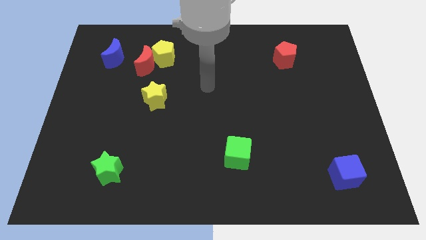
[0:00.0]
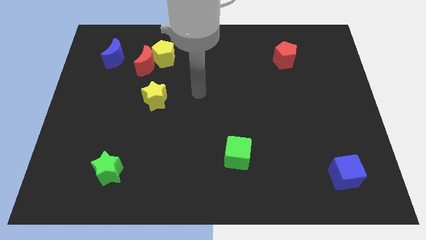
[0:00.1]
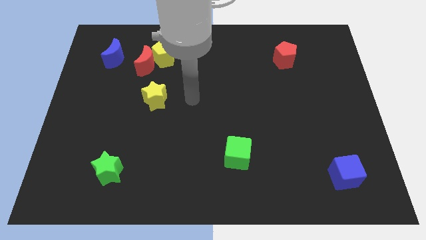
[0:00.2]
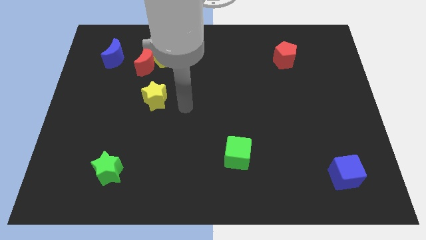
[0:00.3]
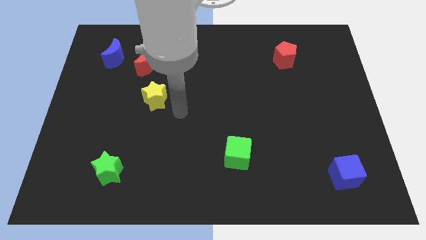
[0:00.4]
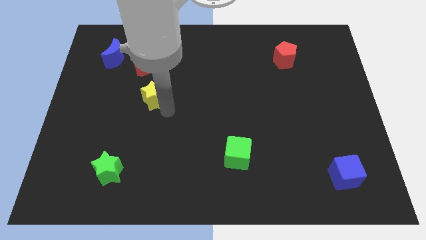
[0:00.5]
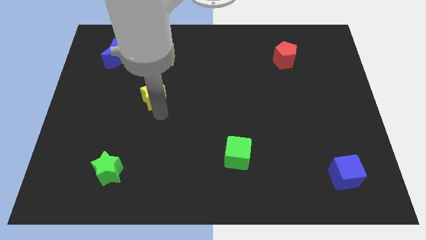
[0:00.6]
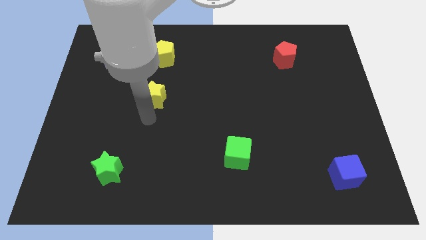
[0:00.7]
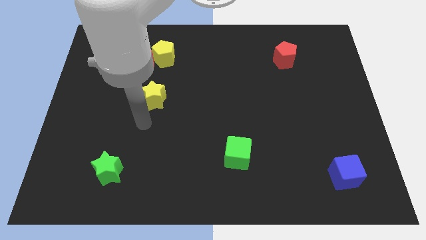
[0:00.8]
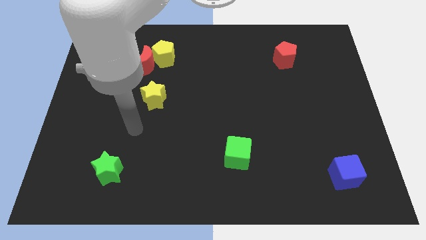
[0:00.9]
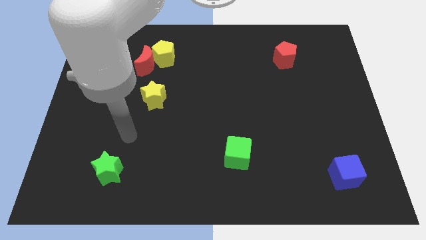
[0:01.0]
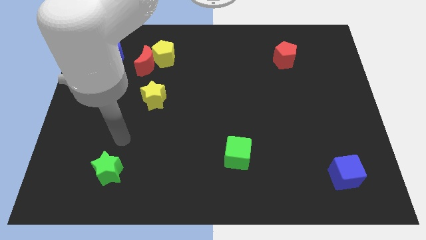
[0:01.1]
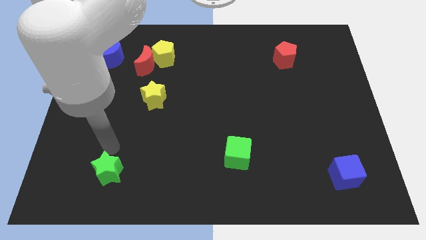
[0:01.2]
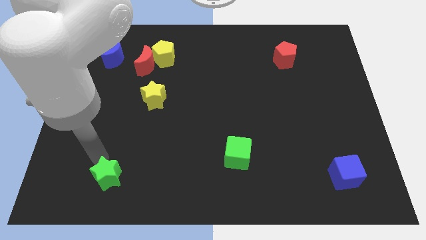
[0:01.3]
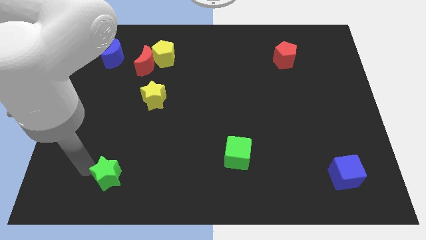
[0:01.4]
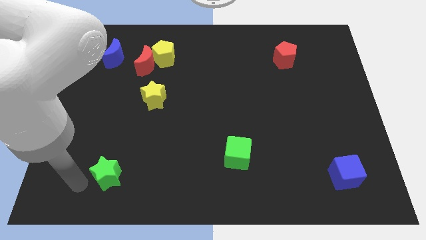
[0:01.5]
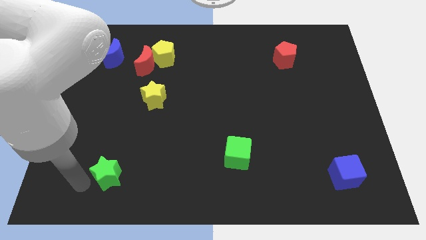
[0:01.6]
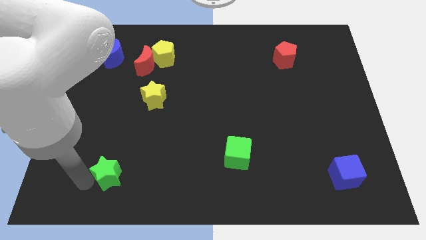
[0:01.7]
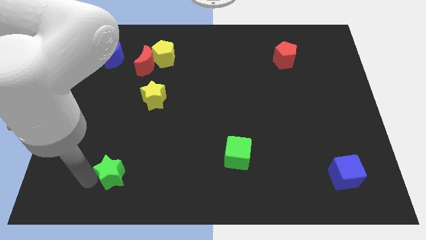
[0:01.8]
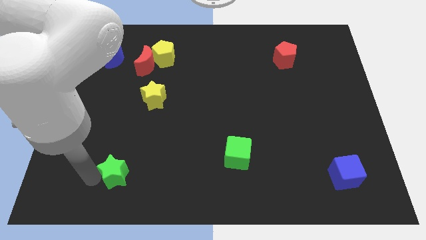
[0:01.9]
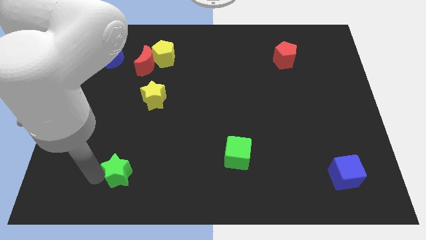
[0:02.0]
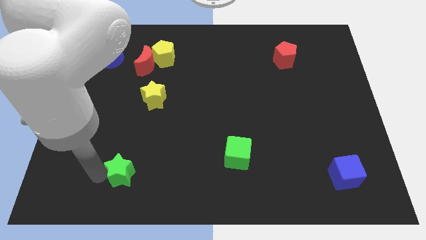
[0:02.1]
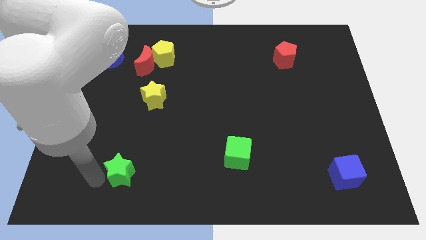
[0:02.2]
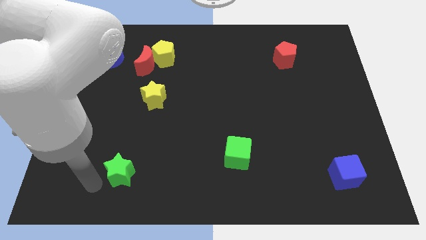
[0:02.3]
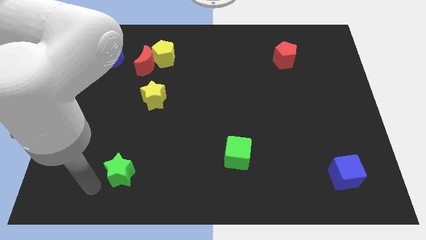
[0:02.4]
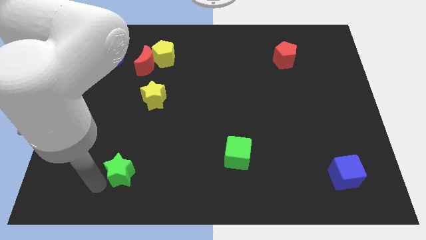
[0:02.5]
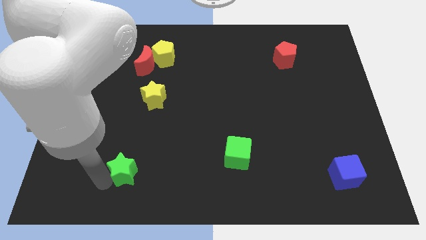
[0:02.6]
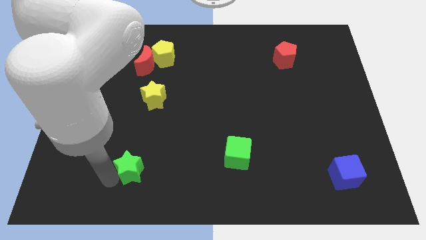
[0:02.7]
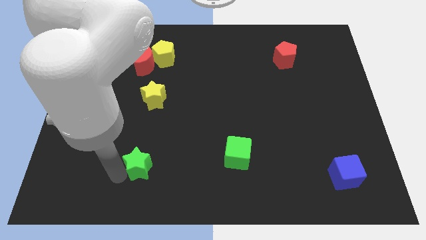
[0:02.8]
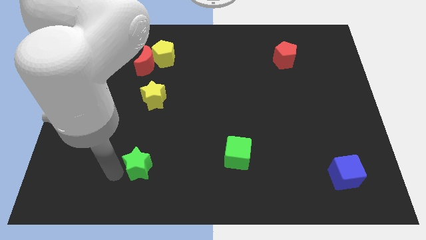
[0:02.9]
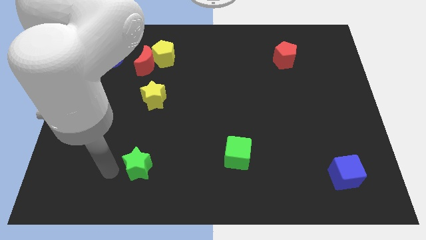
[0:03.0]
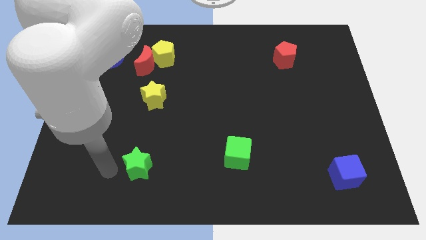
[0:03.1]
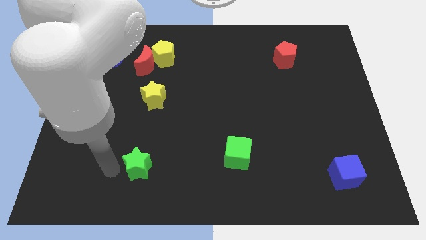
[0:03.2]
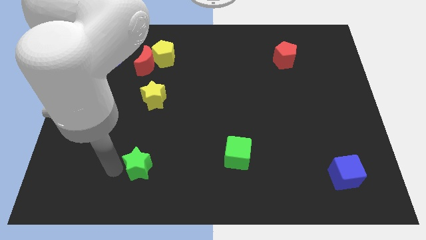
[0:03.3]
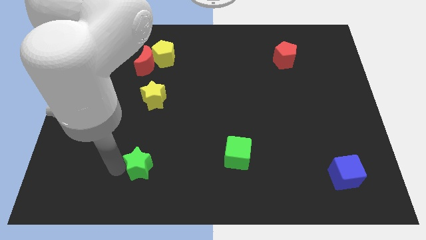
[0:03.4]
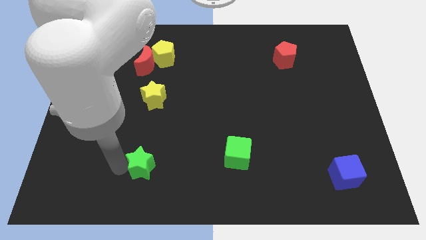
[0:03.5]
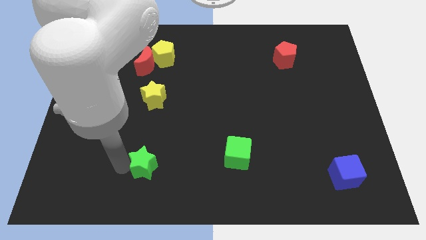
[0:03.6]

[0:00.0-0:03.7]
push the green star to the right a little bit

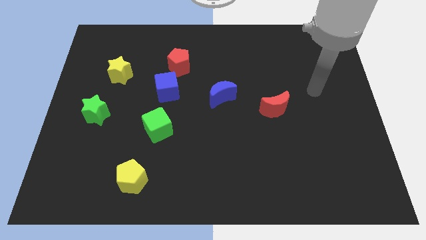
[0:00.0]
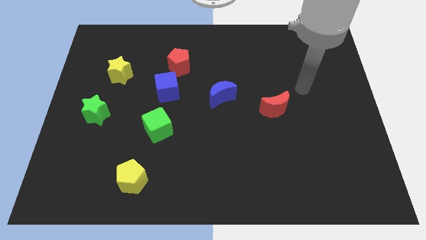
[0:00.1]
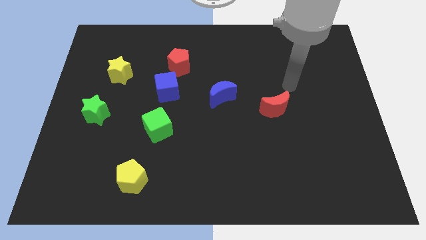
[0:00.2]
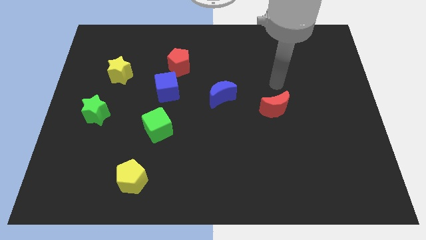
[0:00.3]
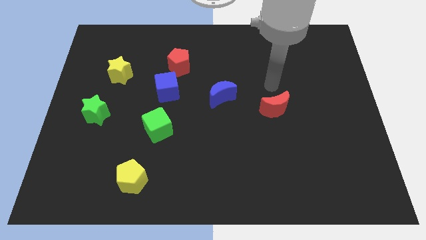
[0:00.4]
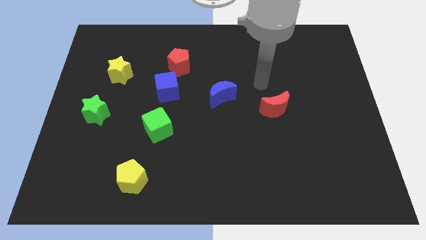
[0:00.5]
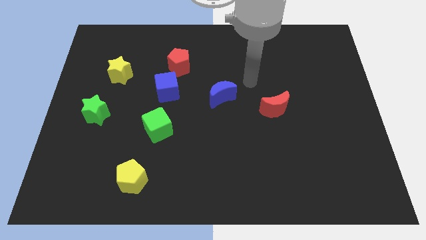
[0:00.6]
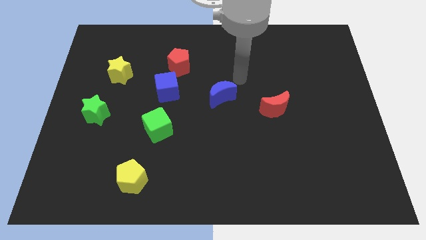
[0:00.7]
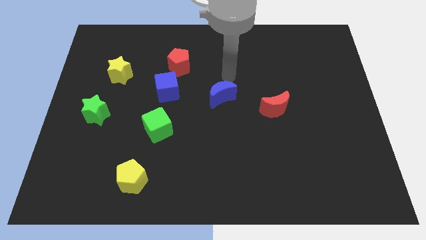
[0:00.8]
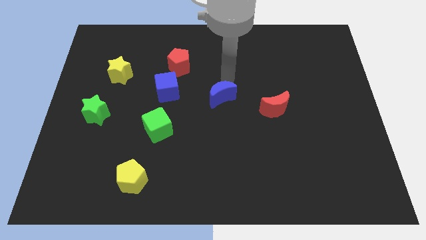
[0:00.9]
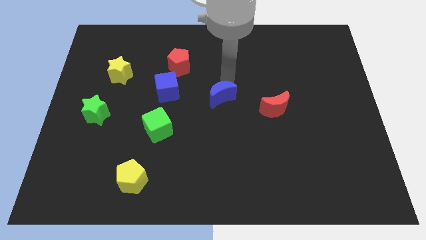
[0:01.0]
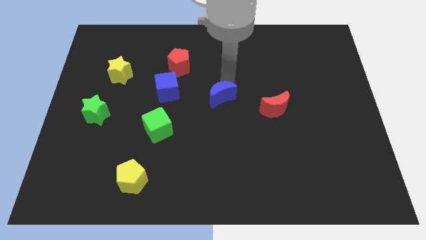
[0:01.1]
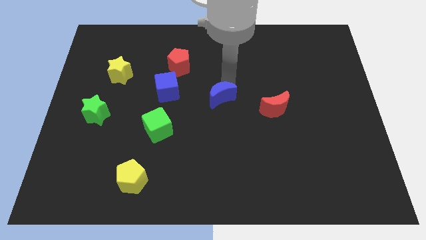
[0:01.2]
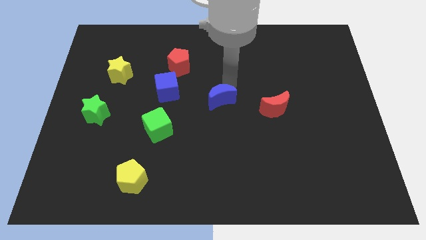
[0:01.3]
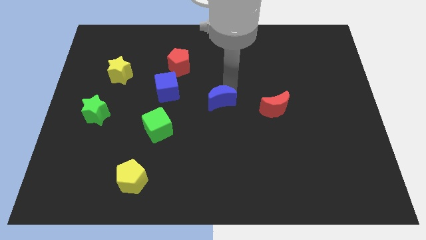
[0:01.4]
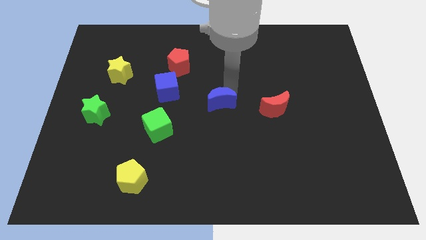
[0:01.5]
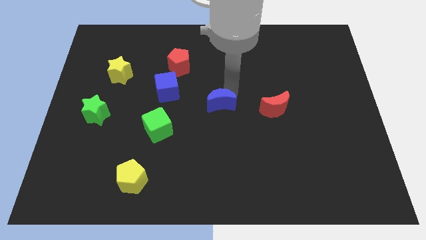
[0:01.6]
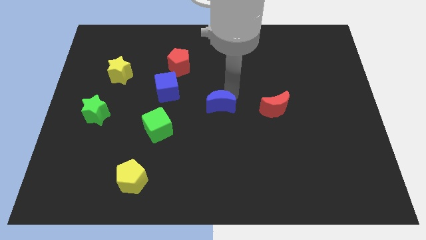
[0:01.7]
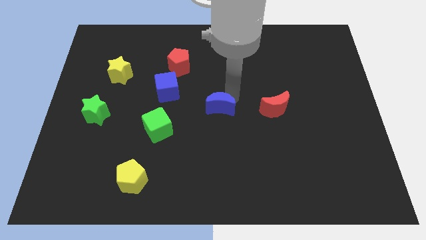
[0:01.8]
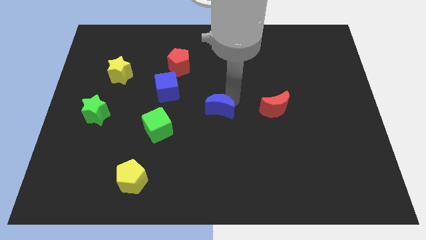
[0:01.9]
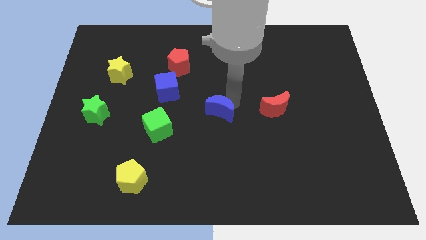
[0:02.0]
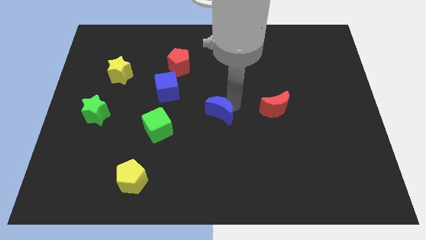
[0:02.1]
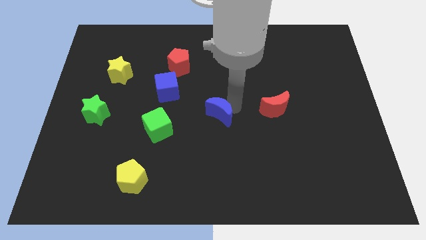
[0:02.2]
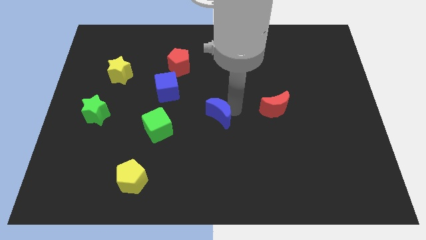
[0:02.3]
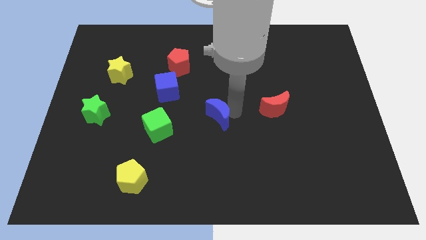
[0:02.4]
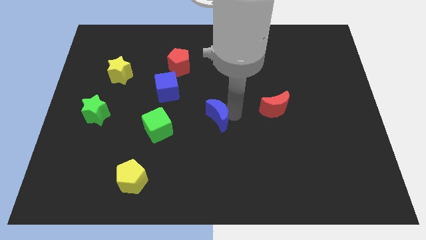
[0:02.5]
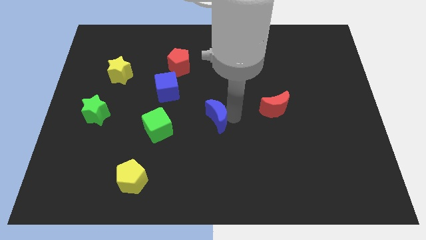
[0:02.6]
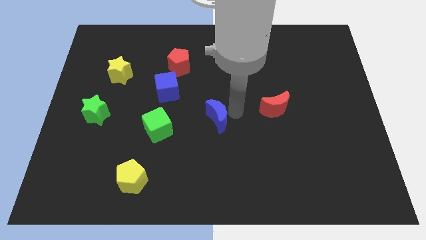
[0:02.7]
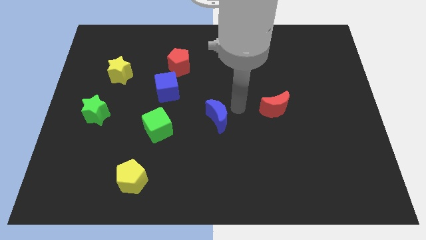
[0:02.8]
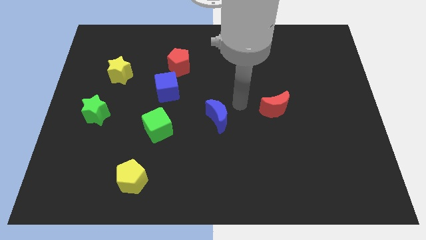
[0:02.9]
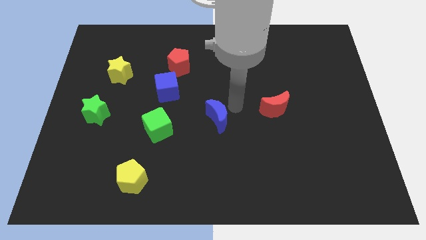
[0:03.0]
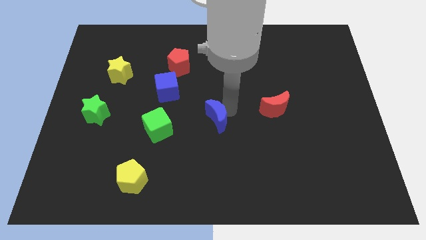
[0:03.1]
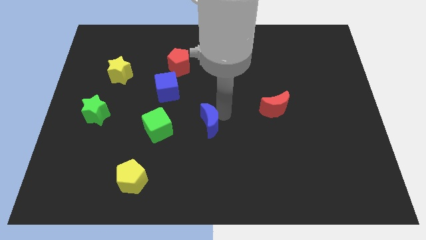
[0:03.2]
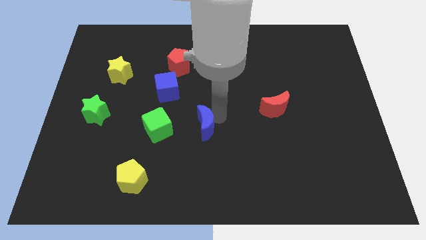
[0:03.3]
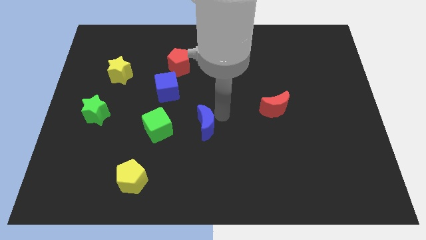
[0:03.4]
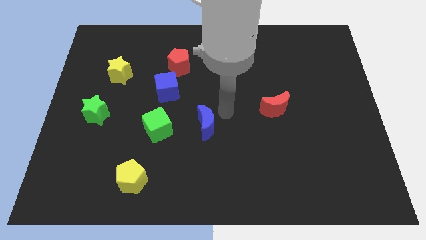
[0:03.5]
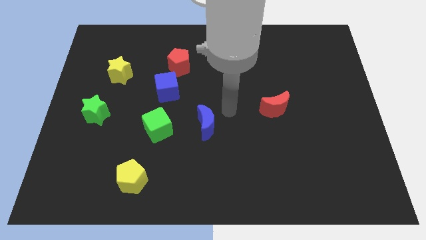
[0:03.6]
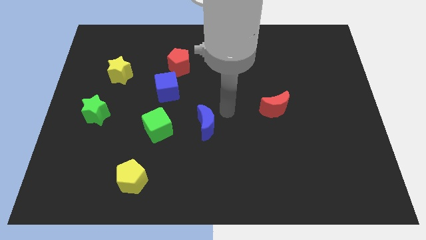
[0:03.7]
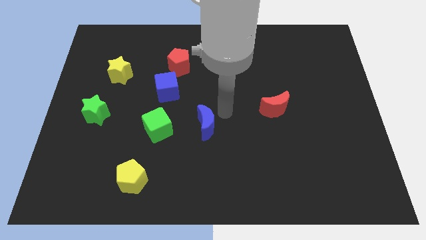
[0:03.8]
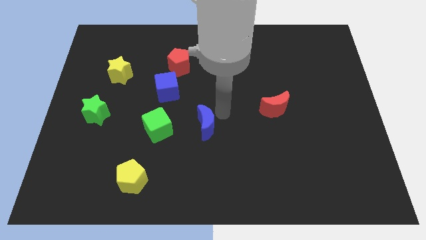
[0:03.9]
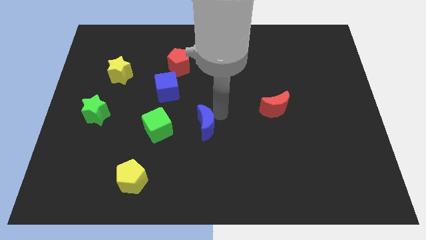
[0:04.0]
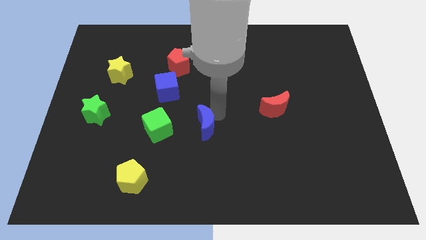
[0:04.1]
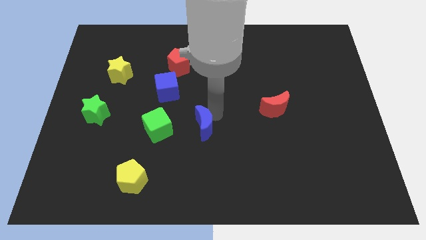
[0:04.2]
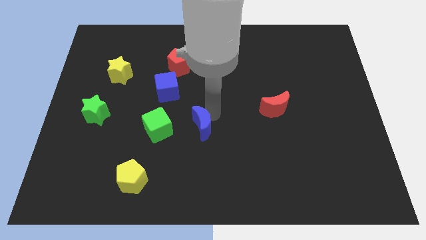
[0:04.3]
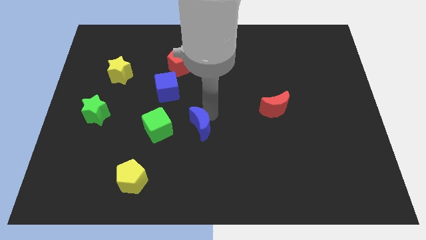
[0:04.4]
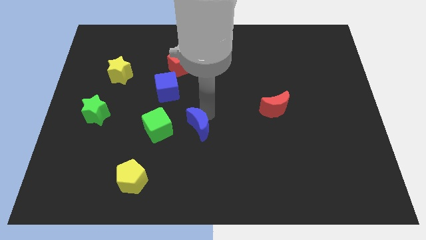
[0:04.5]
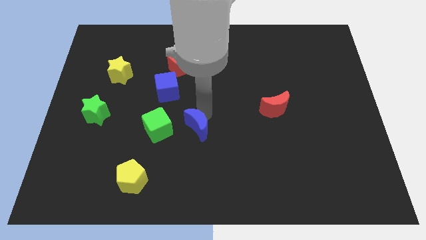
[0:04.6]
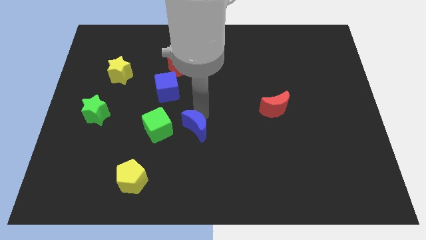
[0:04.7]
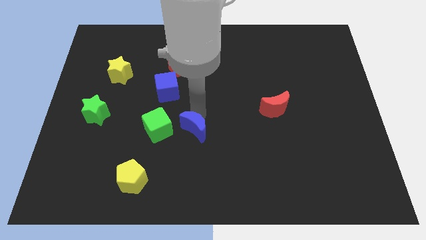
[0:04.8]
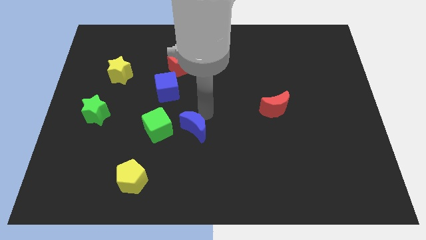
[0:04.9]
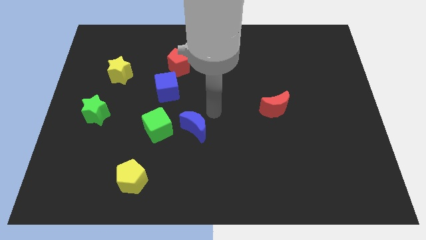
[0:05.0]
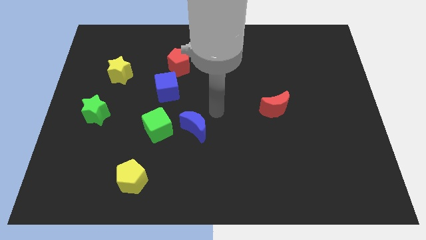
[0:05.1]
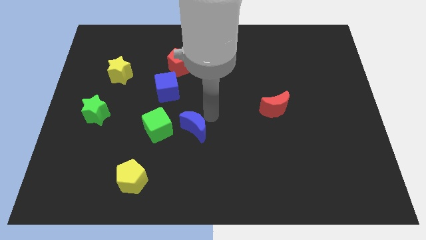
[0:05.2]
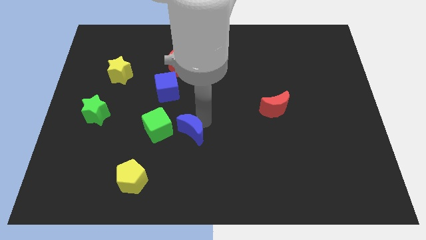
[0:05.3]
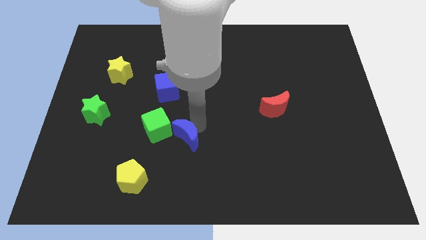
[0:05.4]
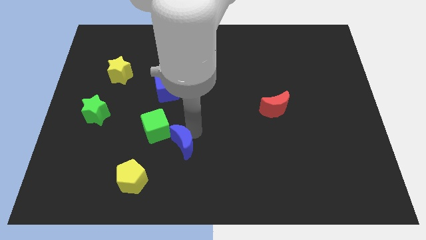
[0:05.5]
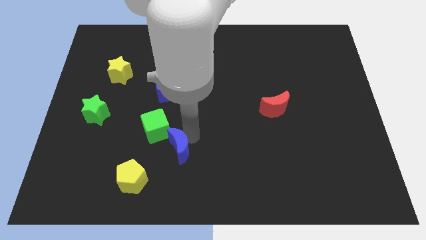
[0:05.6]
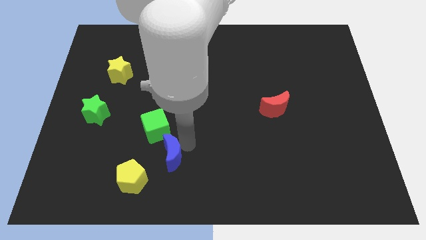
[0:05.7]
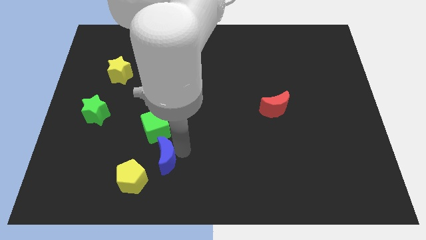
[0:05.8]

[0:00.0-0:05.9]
move the blue moon diagonally down and left
